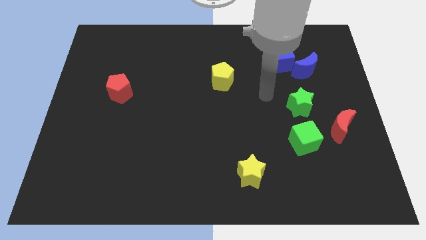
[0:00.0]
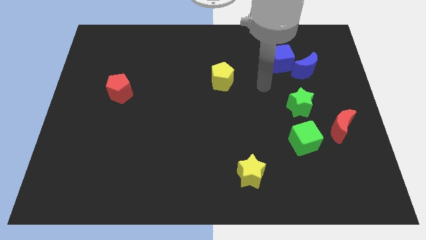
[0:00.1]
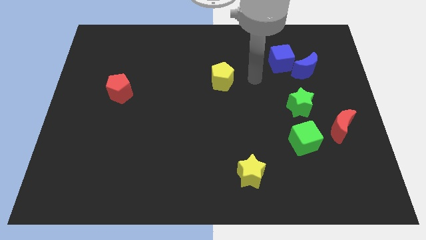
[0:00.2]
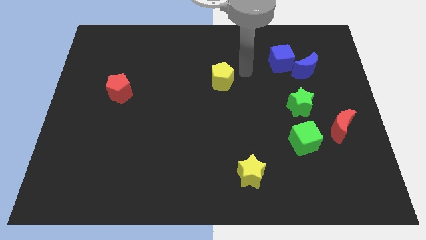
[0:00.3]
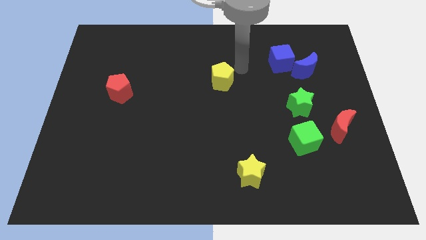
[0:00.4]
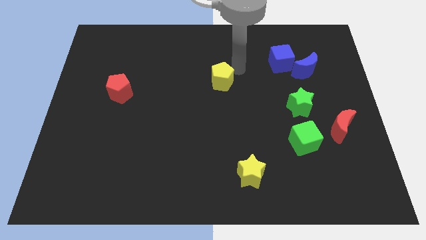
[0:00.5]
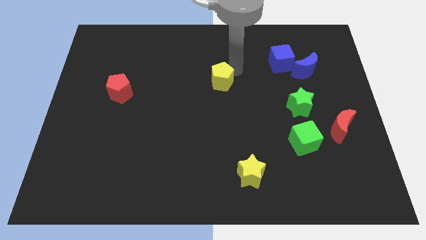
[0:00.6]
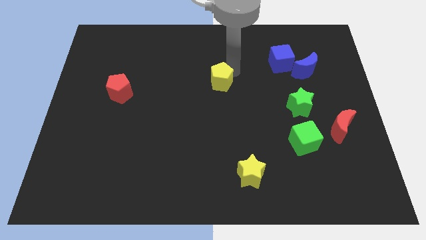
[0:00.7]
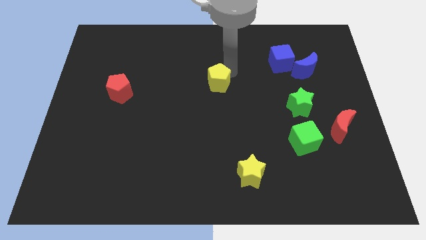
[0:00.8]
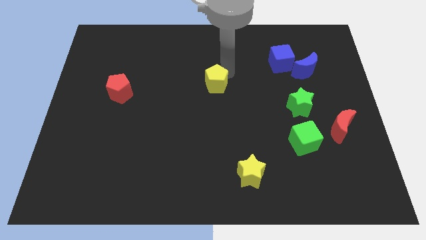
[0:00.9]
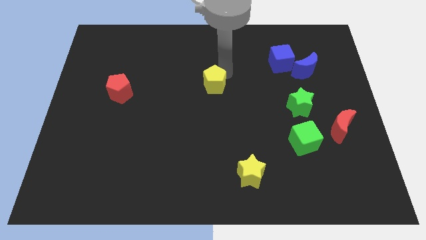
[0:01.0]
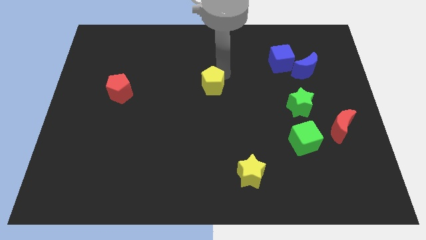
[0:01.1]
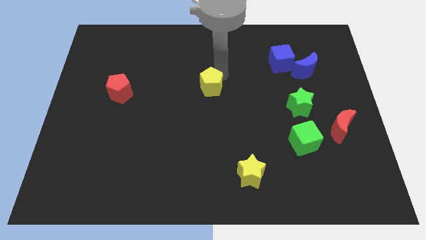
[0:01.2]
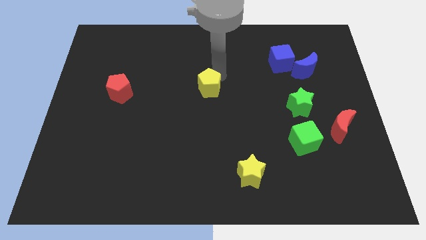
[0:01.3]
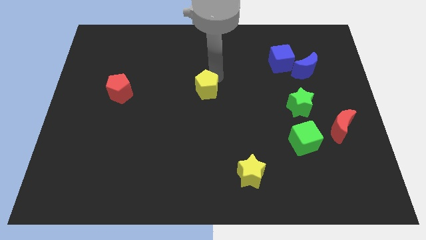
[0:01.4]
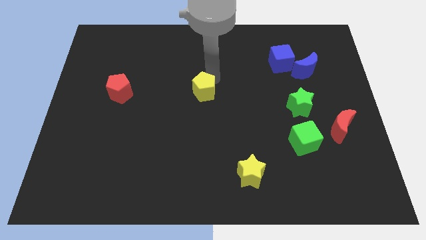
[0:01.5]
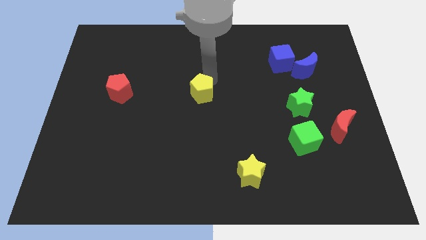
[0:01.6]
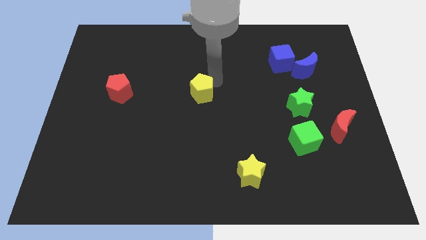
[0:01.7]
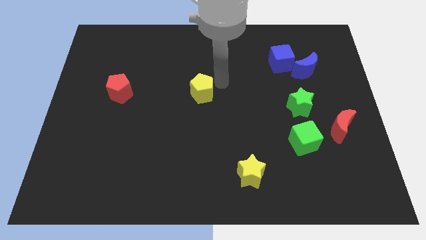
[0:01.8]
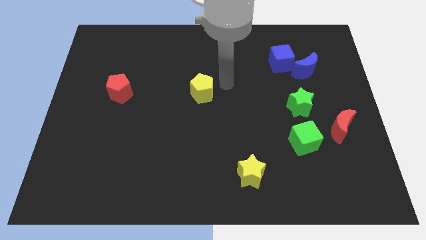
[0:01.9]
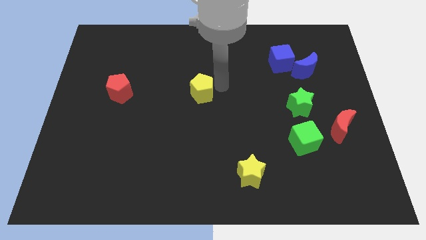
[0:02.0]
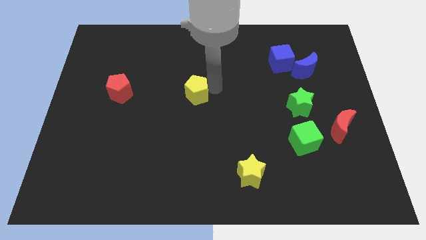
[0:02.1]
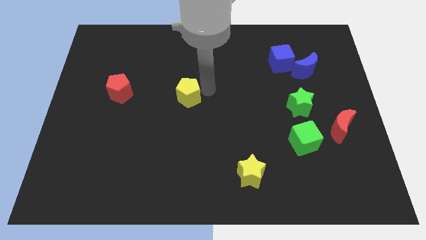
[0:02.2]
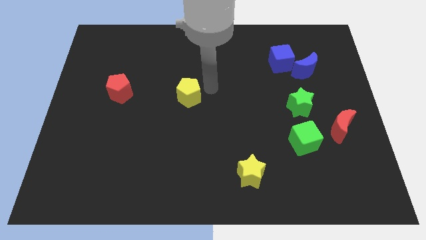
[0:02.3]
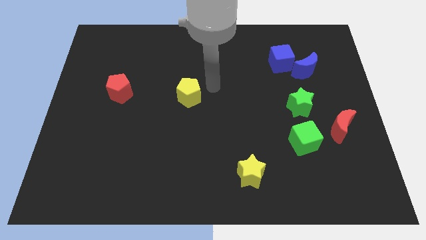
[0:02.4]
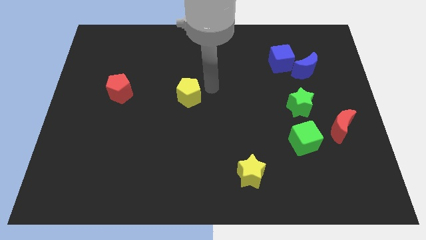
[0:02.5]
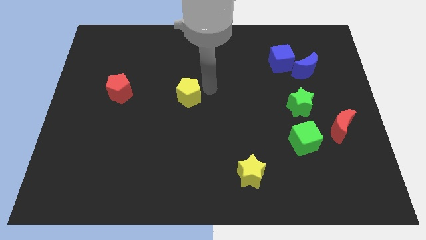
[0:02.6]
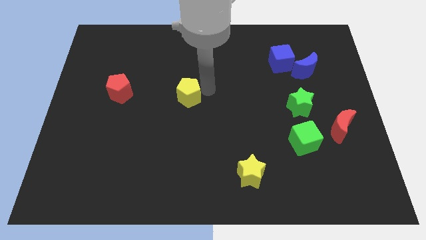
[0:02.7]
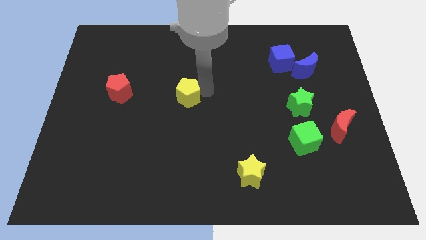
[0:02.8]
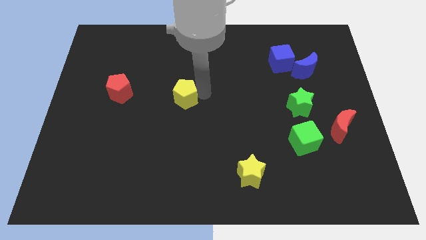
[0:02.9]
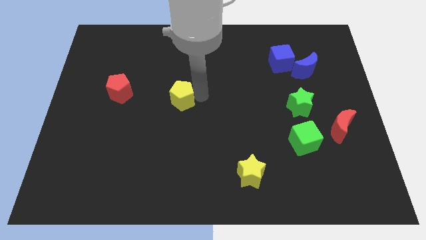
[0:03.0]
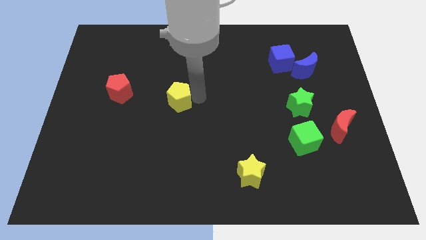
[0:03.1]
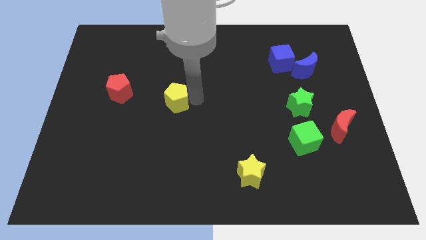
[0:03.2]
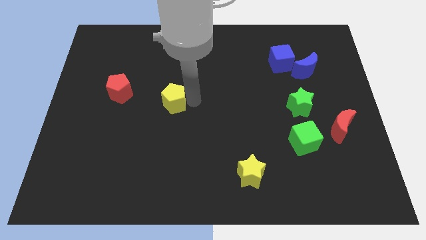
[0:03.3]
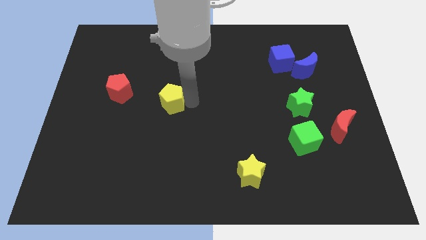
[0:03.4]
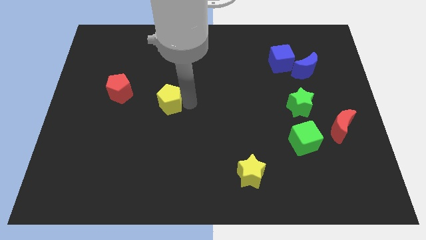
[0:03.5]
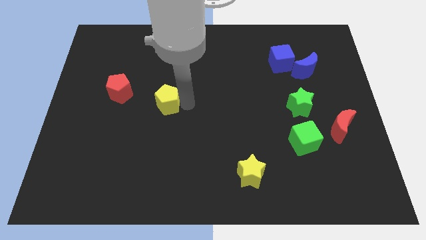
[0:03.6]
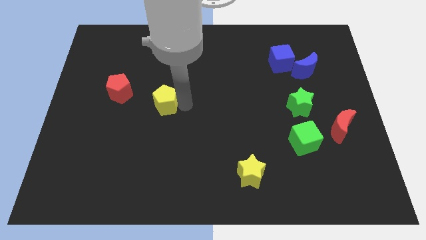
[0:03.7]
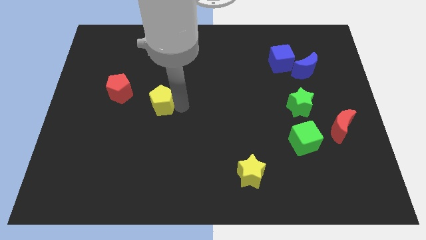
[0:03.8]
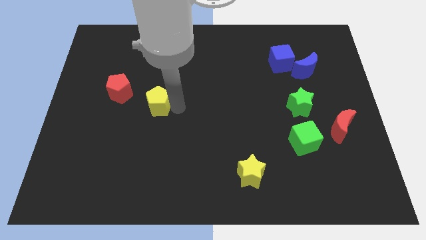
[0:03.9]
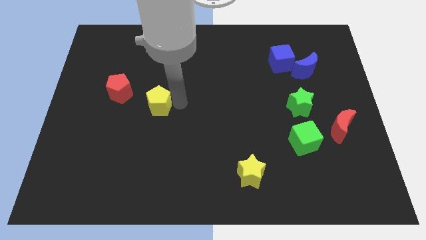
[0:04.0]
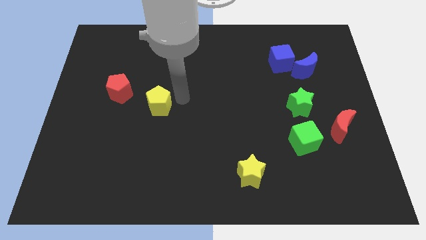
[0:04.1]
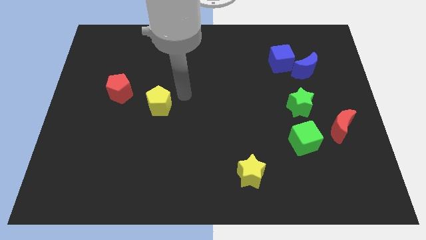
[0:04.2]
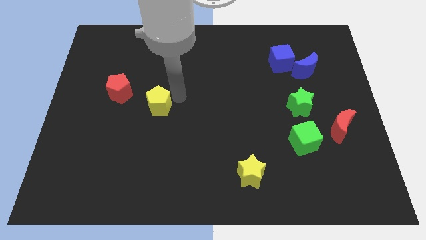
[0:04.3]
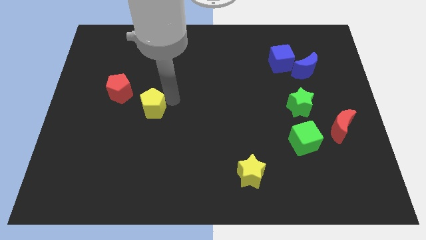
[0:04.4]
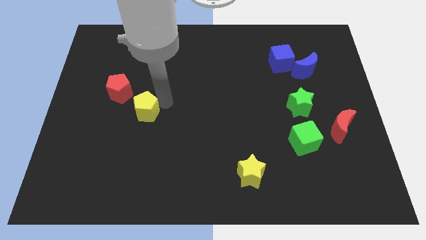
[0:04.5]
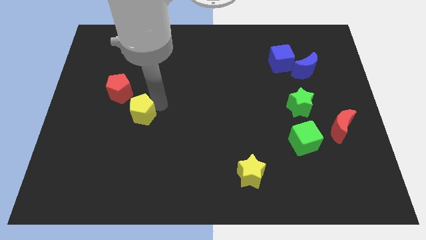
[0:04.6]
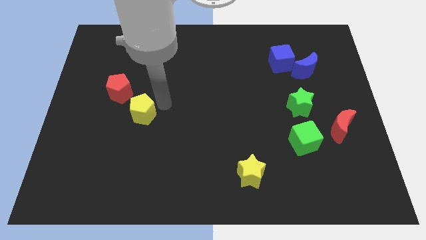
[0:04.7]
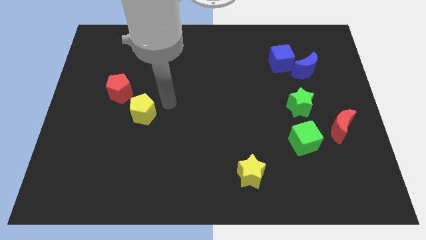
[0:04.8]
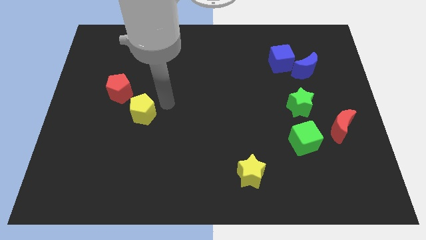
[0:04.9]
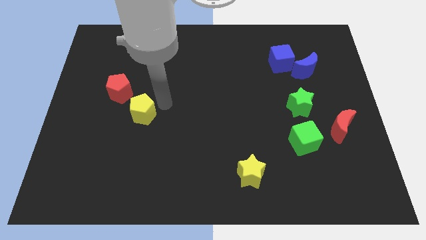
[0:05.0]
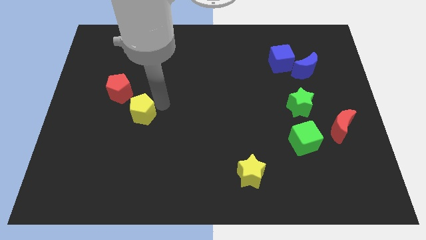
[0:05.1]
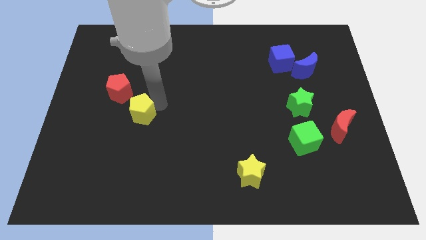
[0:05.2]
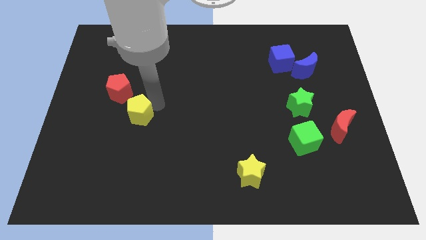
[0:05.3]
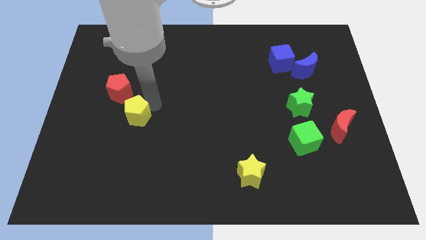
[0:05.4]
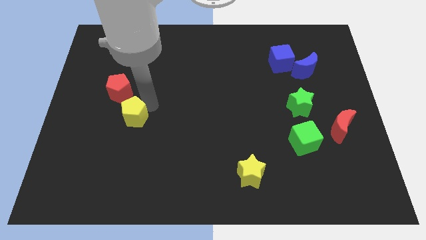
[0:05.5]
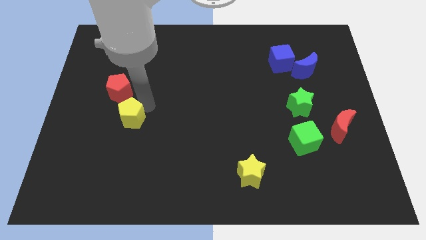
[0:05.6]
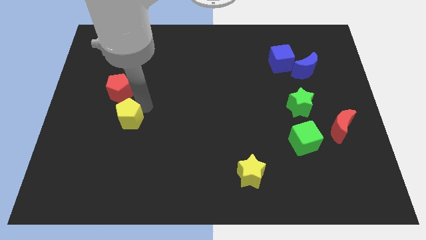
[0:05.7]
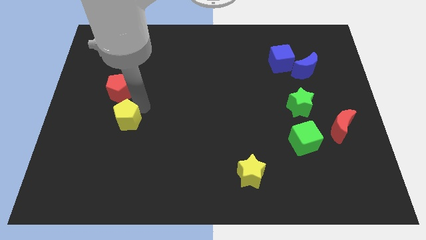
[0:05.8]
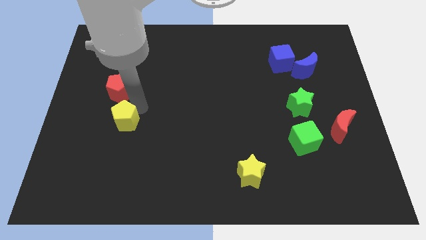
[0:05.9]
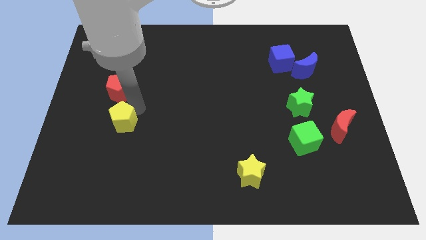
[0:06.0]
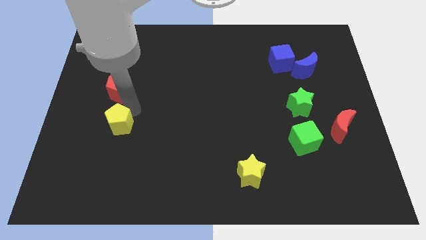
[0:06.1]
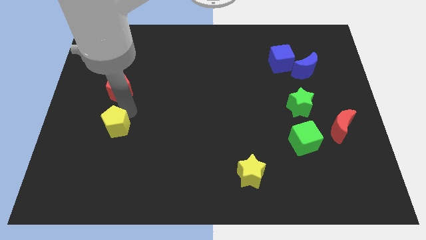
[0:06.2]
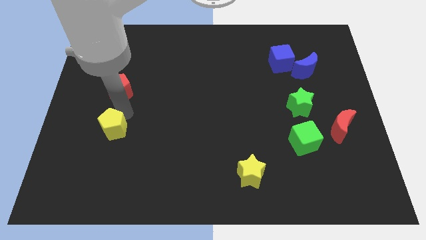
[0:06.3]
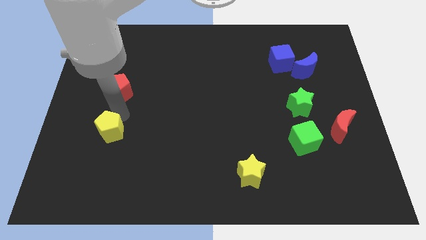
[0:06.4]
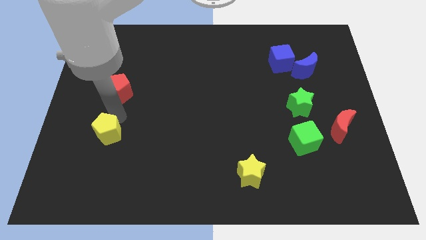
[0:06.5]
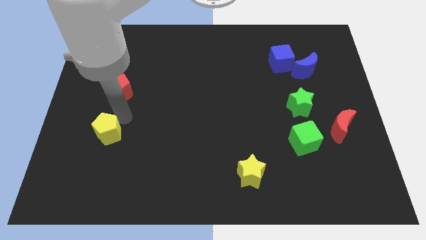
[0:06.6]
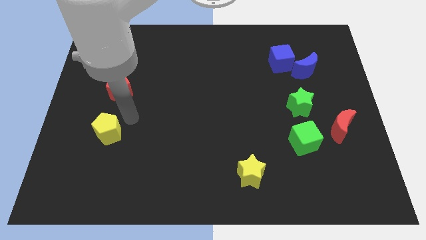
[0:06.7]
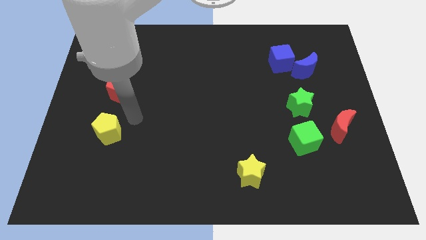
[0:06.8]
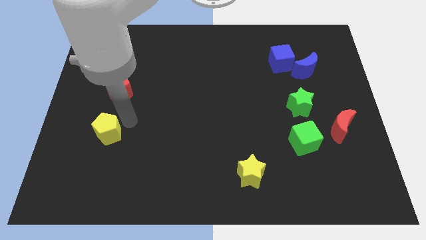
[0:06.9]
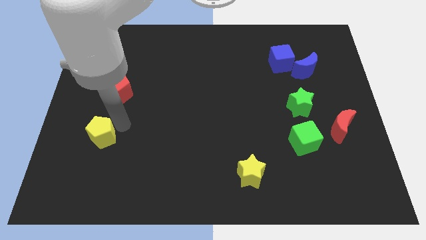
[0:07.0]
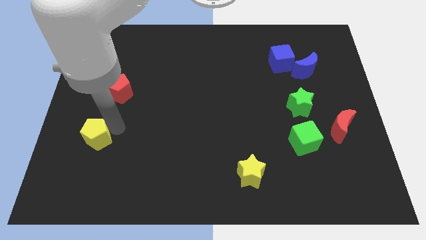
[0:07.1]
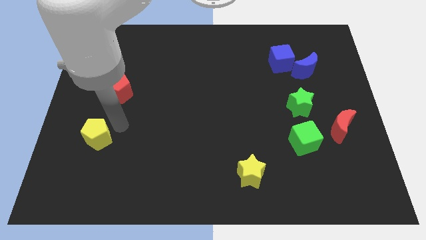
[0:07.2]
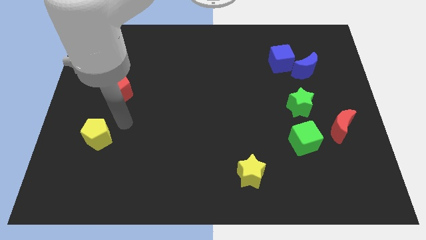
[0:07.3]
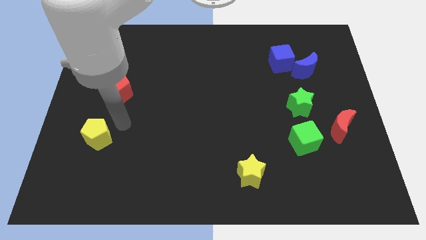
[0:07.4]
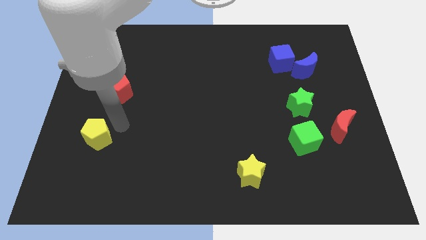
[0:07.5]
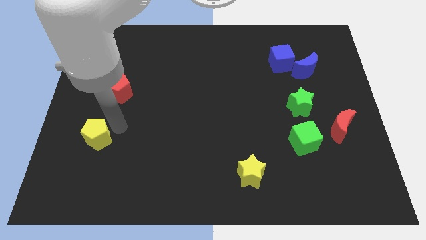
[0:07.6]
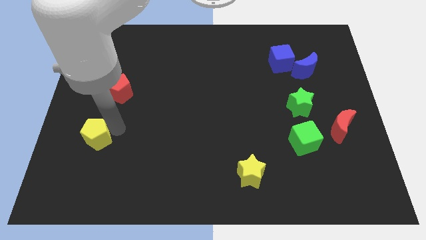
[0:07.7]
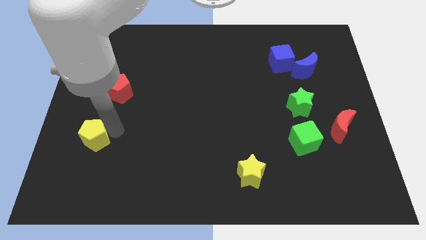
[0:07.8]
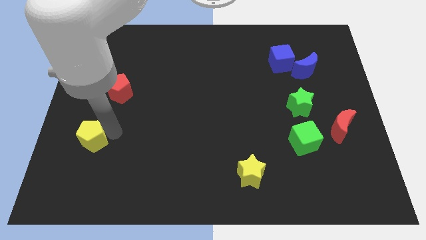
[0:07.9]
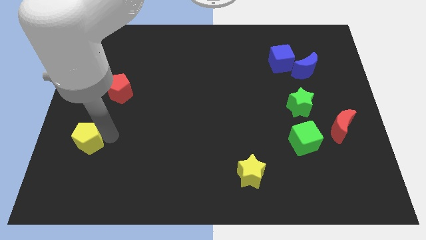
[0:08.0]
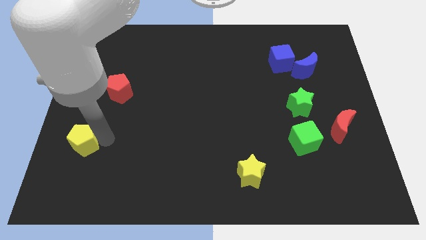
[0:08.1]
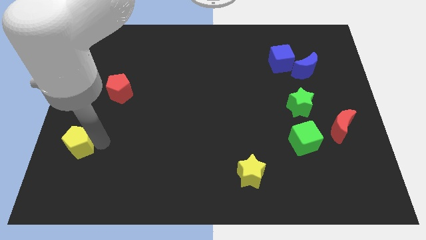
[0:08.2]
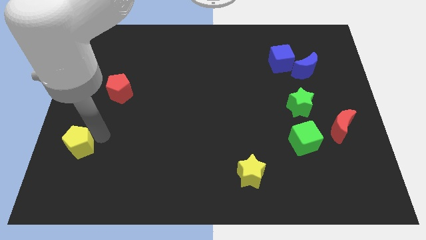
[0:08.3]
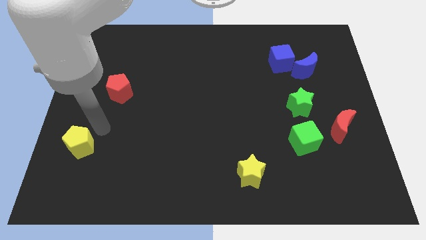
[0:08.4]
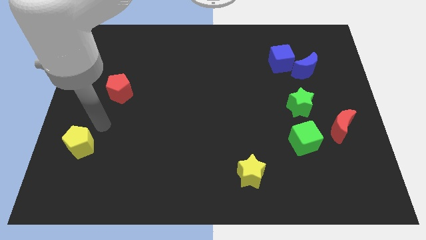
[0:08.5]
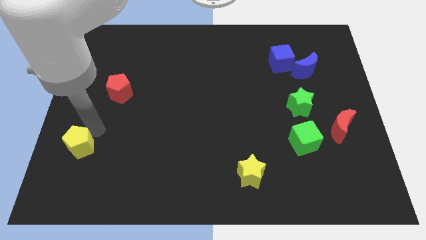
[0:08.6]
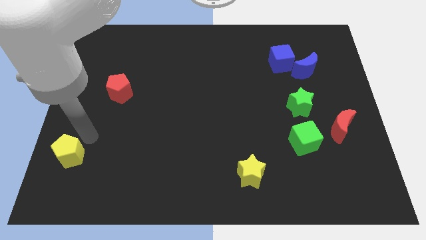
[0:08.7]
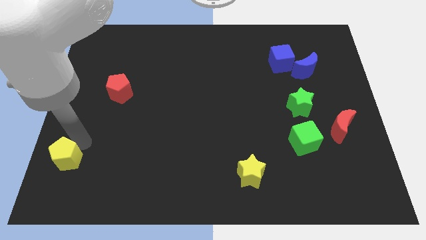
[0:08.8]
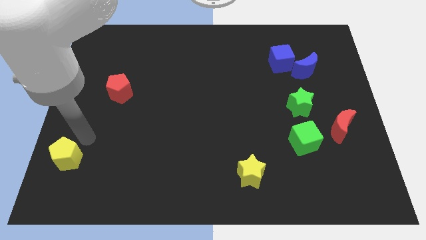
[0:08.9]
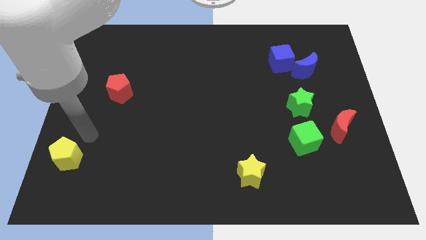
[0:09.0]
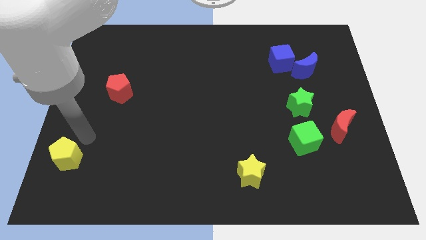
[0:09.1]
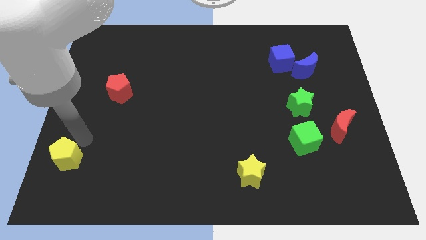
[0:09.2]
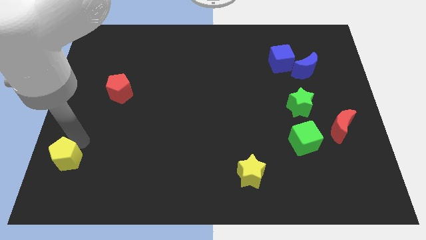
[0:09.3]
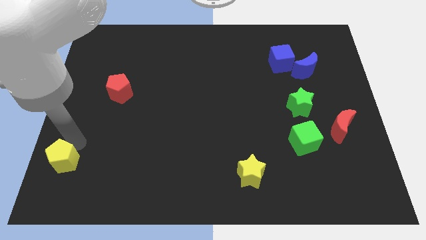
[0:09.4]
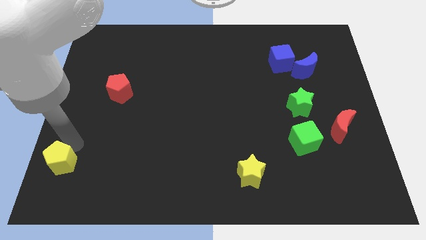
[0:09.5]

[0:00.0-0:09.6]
put the yellow pentagon to the bottom left
